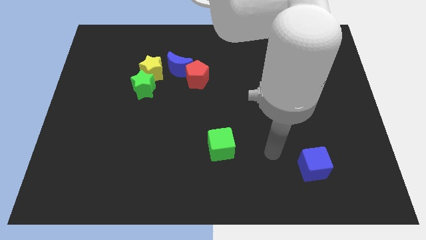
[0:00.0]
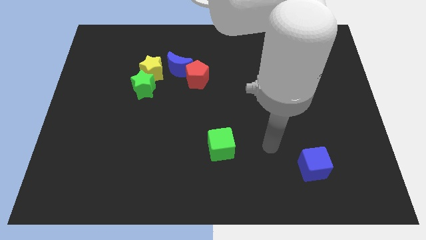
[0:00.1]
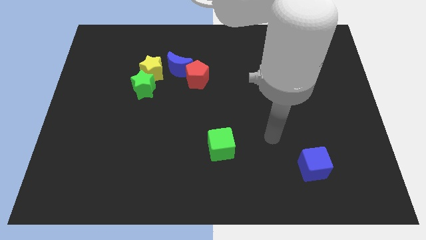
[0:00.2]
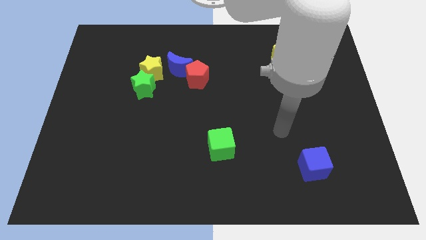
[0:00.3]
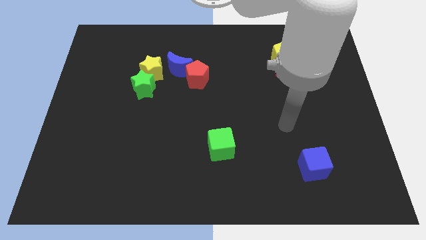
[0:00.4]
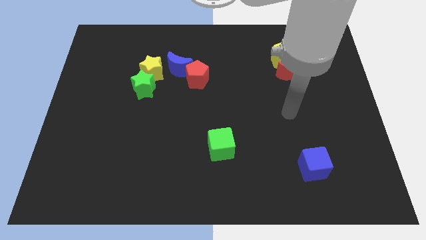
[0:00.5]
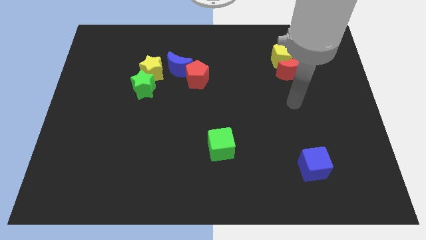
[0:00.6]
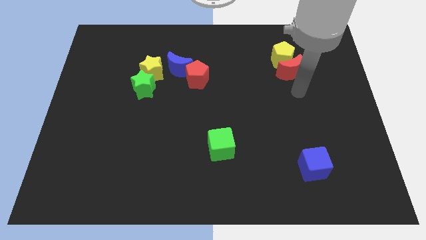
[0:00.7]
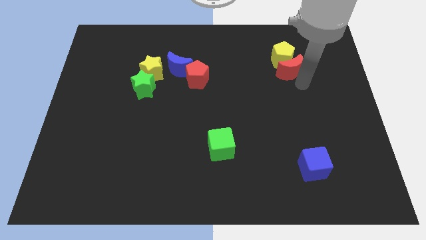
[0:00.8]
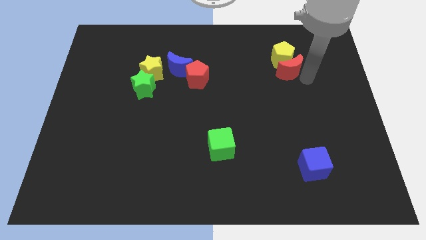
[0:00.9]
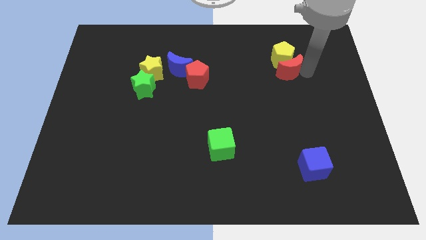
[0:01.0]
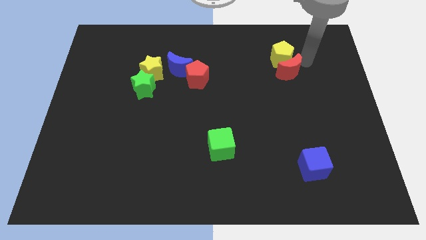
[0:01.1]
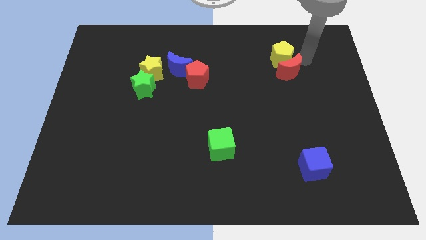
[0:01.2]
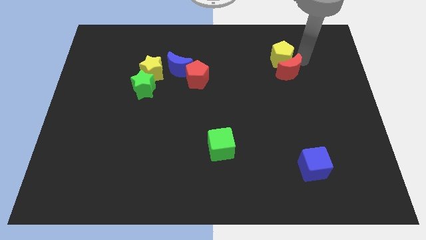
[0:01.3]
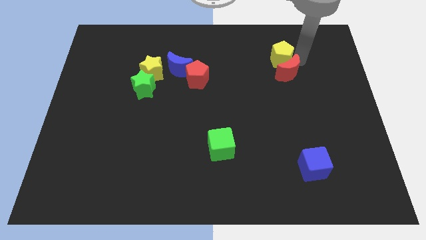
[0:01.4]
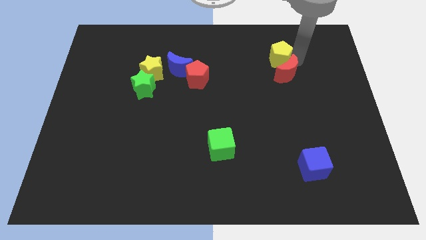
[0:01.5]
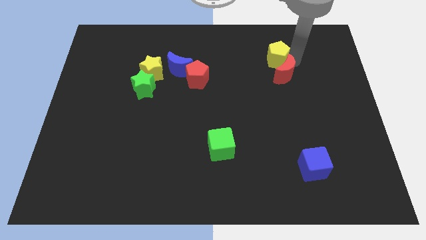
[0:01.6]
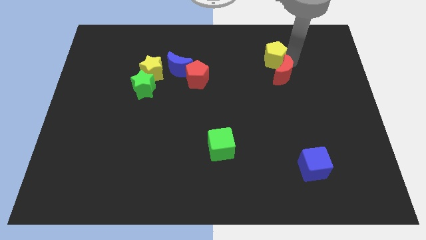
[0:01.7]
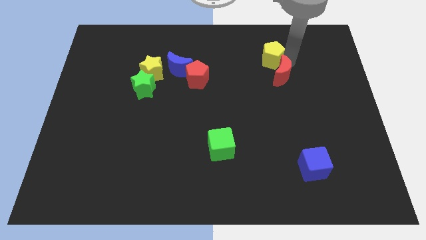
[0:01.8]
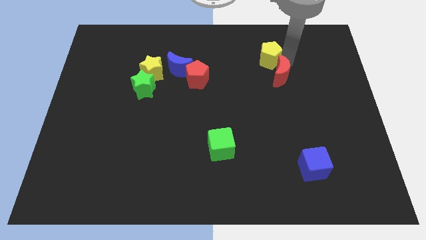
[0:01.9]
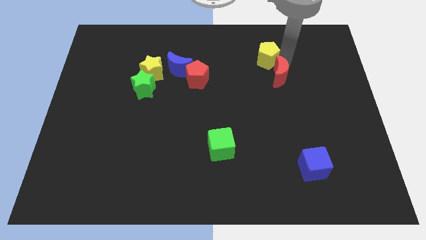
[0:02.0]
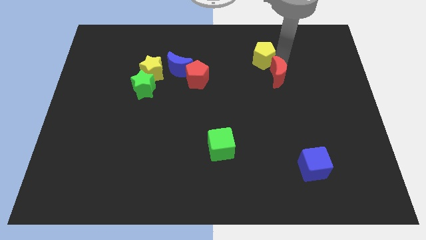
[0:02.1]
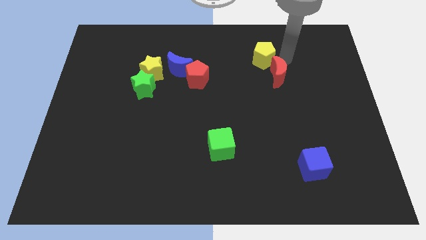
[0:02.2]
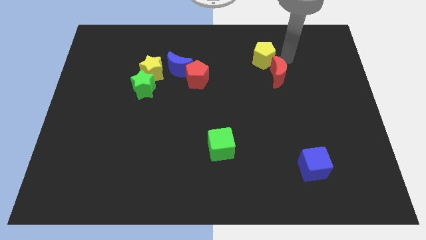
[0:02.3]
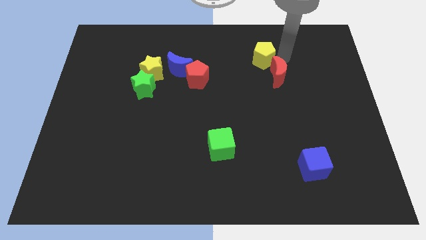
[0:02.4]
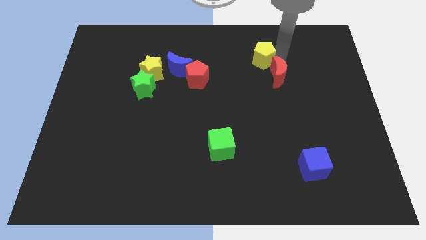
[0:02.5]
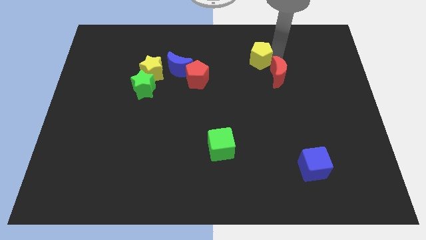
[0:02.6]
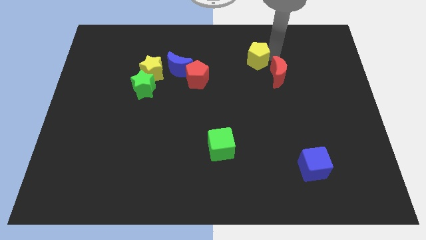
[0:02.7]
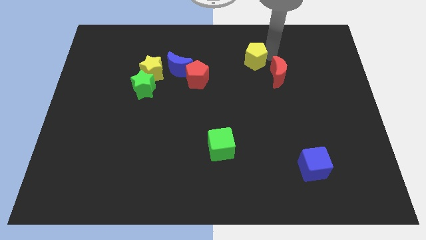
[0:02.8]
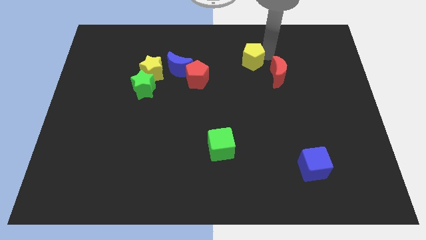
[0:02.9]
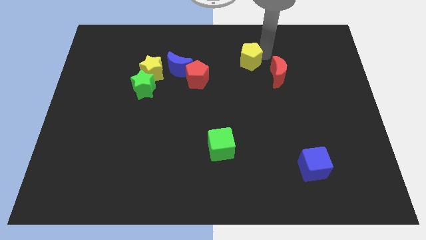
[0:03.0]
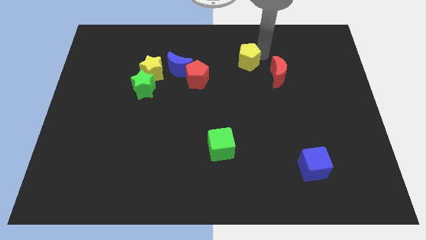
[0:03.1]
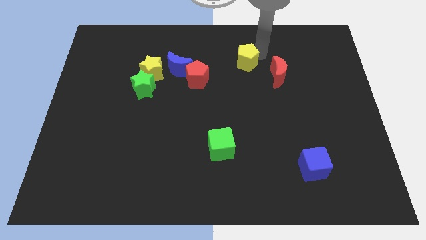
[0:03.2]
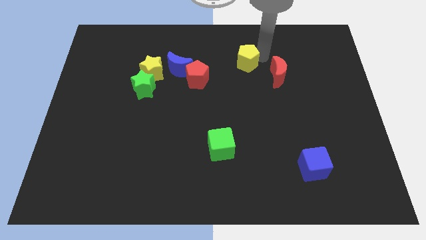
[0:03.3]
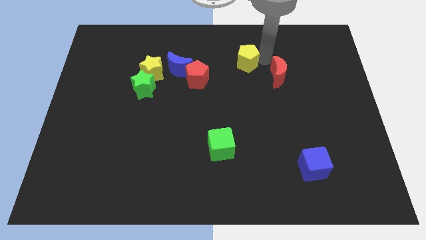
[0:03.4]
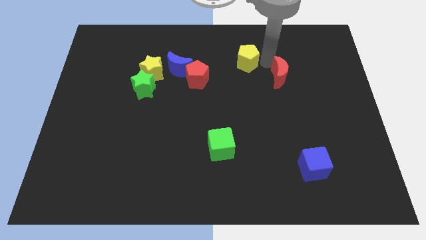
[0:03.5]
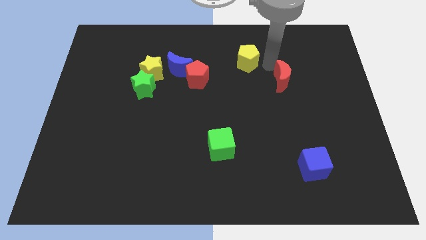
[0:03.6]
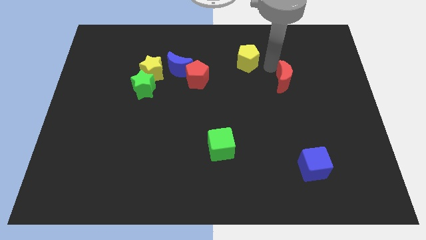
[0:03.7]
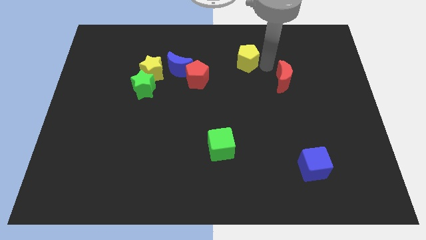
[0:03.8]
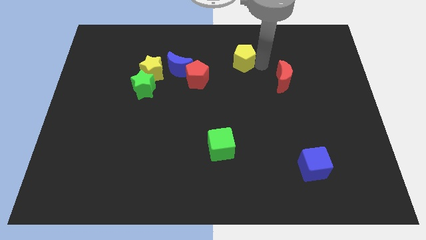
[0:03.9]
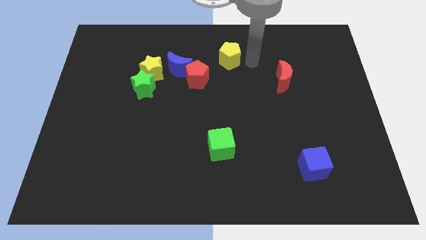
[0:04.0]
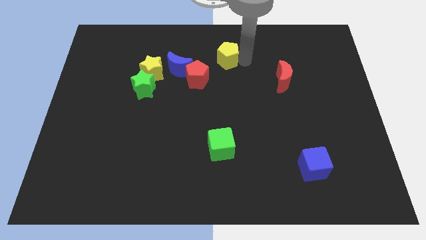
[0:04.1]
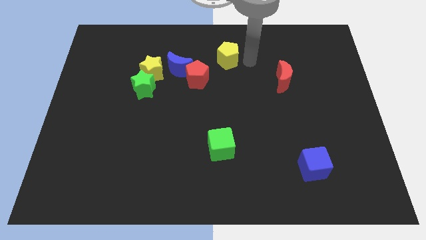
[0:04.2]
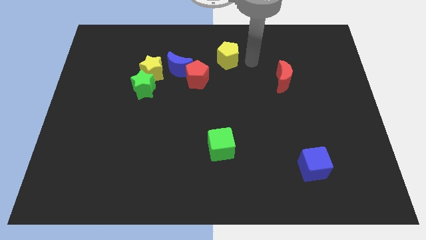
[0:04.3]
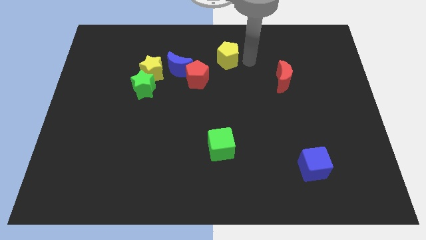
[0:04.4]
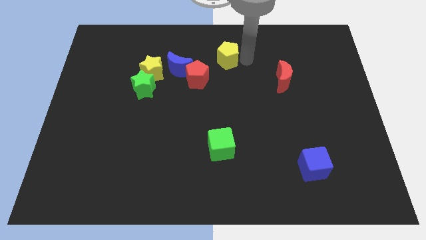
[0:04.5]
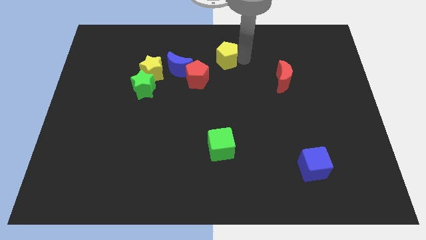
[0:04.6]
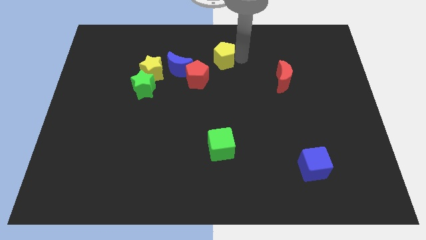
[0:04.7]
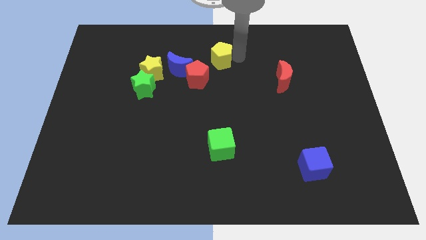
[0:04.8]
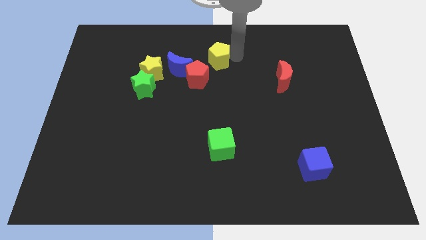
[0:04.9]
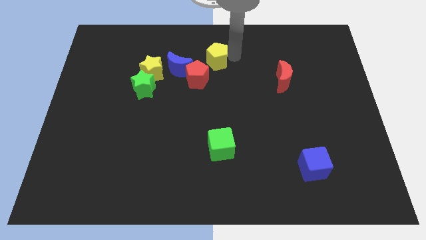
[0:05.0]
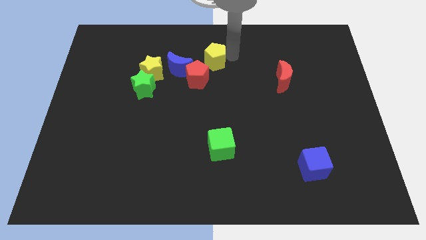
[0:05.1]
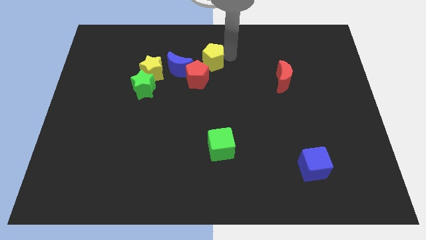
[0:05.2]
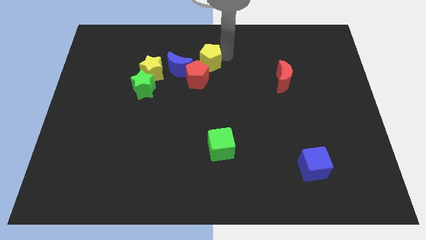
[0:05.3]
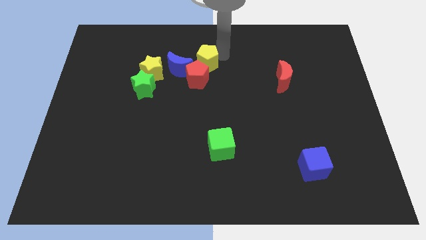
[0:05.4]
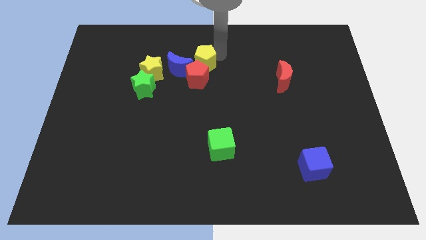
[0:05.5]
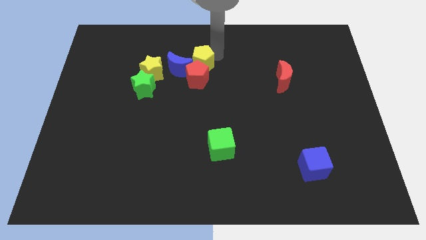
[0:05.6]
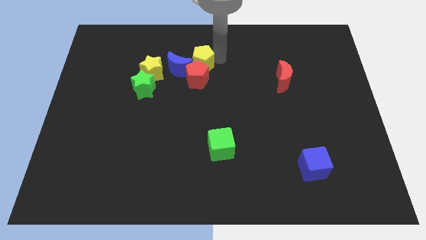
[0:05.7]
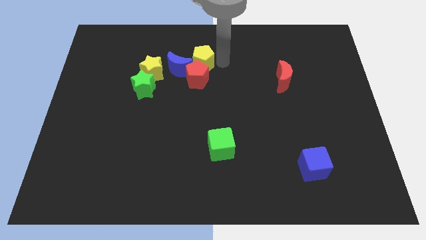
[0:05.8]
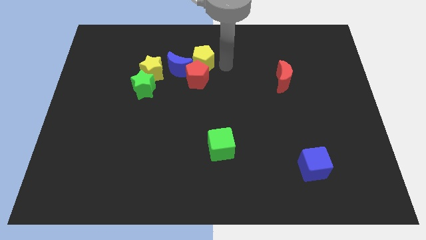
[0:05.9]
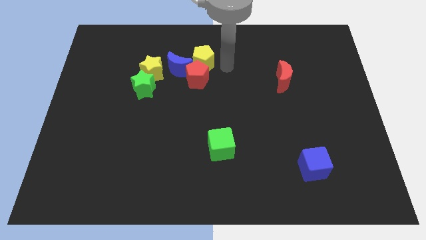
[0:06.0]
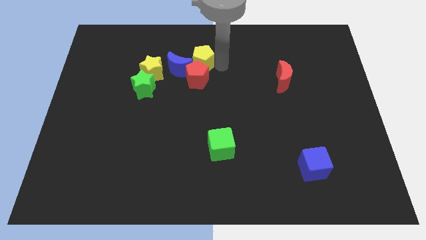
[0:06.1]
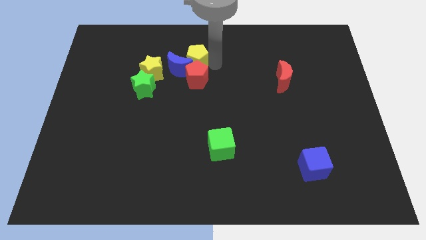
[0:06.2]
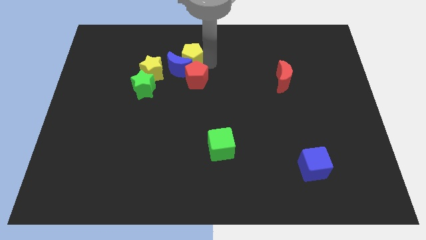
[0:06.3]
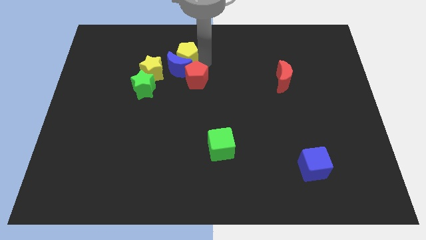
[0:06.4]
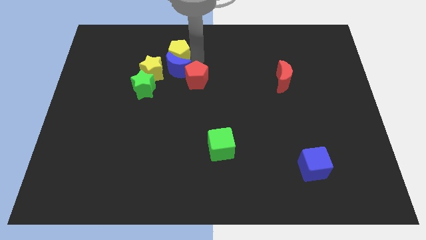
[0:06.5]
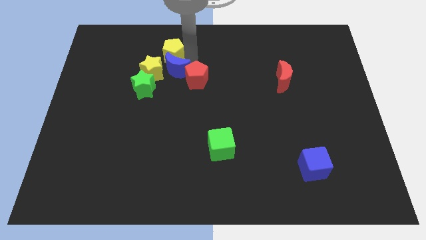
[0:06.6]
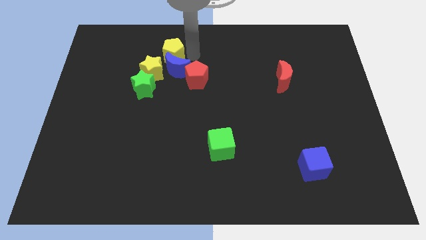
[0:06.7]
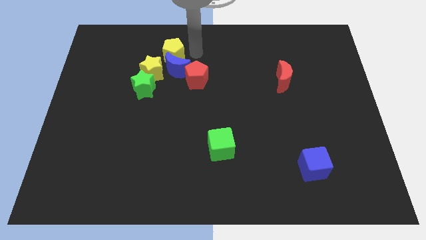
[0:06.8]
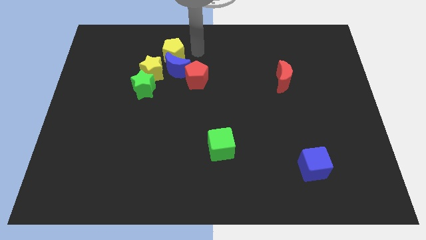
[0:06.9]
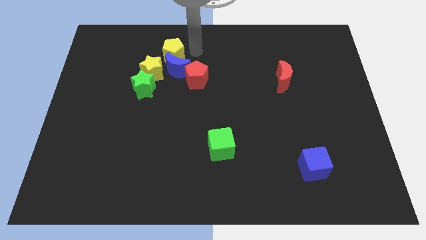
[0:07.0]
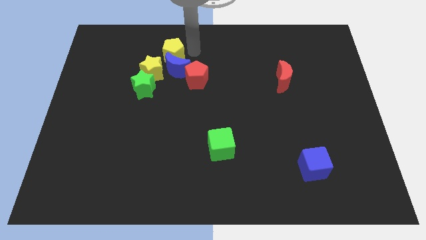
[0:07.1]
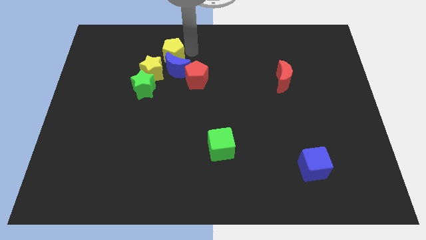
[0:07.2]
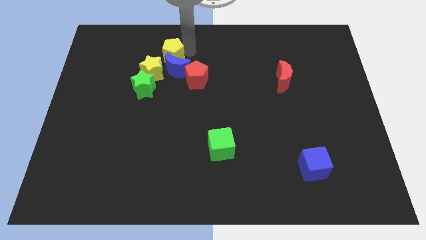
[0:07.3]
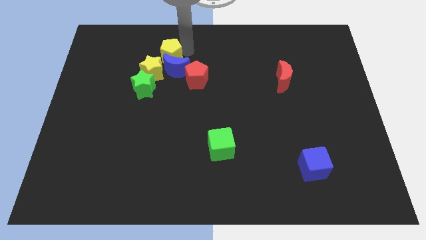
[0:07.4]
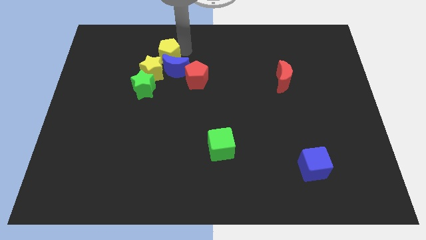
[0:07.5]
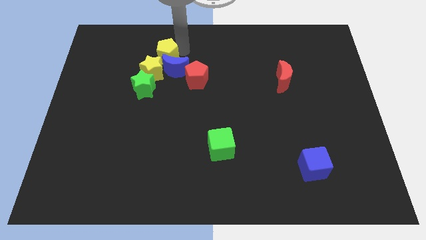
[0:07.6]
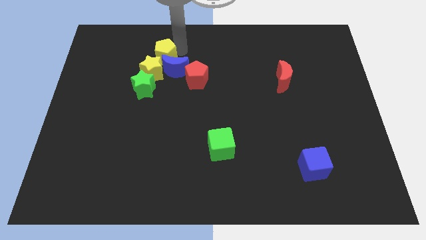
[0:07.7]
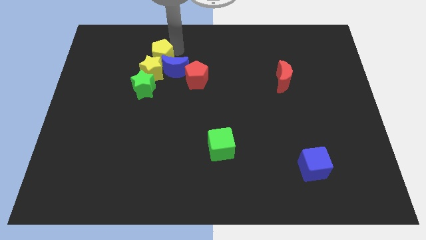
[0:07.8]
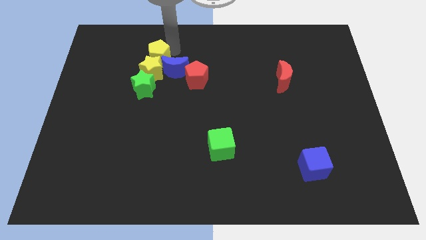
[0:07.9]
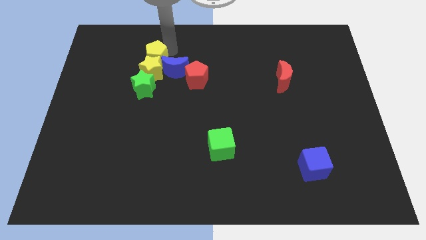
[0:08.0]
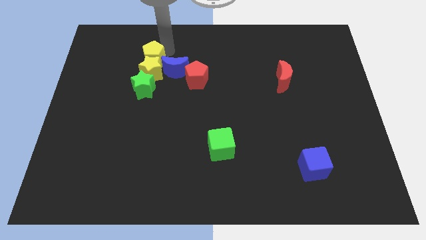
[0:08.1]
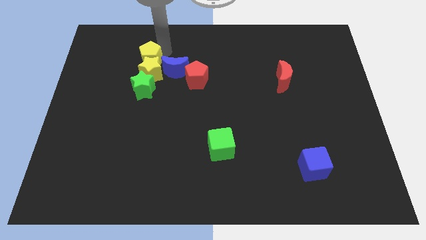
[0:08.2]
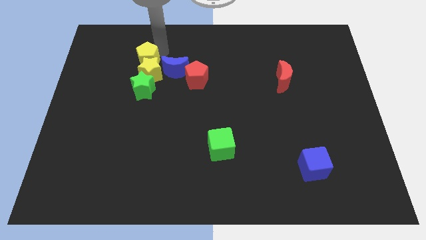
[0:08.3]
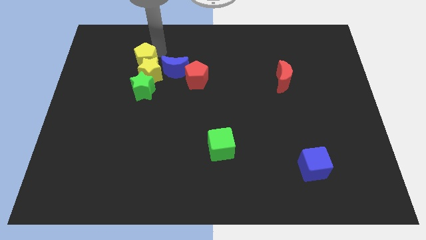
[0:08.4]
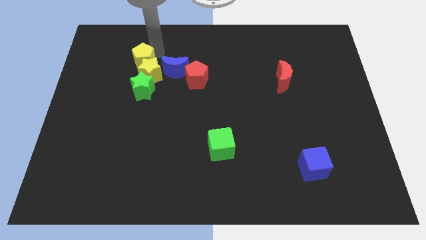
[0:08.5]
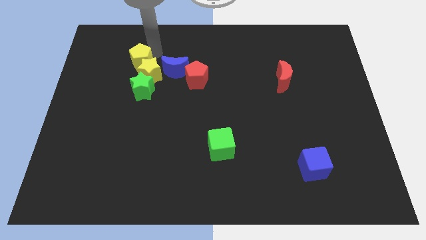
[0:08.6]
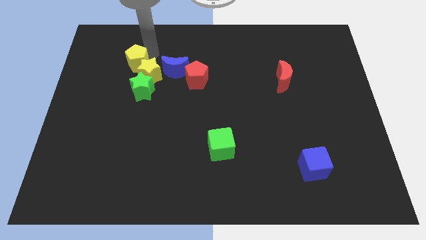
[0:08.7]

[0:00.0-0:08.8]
slide the yellow pentagon to the left side of the yellow star
